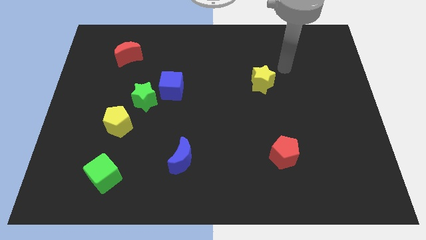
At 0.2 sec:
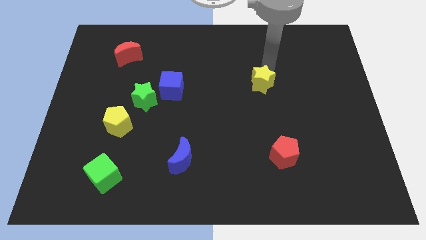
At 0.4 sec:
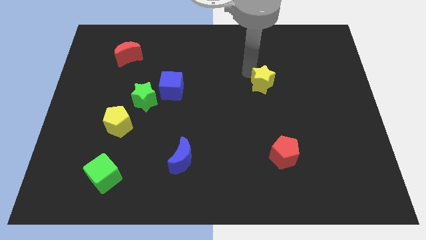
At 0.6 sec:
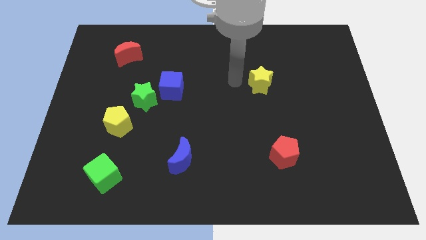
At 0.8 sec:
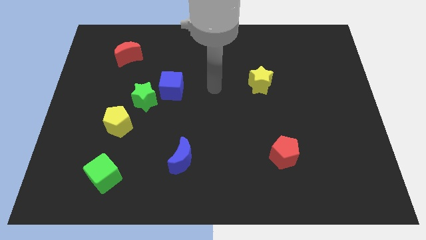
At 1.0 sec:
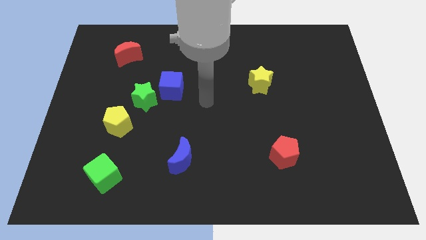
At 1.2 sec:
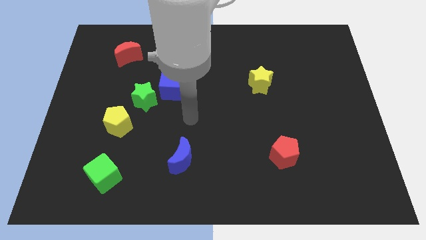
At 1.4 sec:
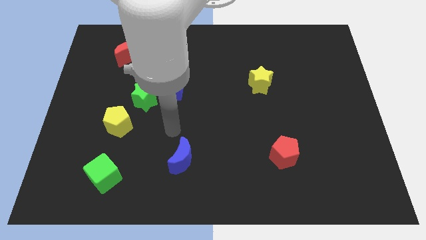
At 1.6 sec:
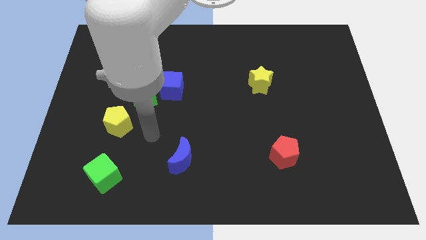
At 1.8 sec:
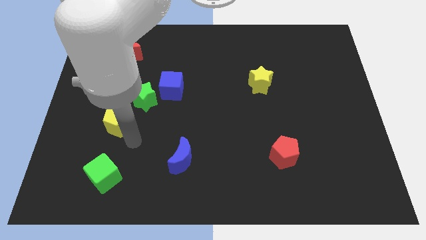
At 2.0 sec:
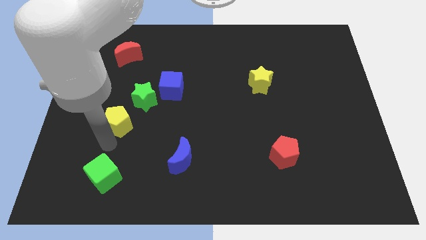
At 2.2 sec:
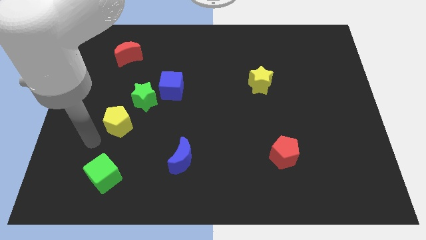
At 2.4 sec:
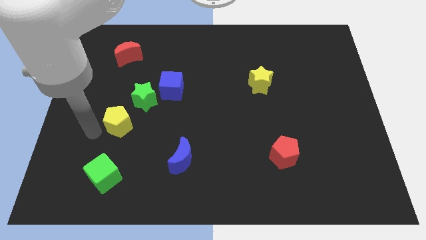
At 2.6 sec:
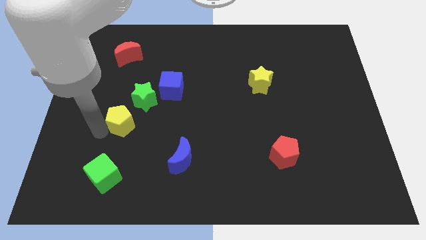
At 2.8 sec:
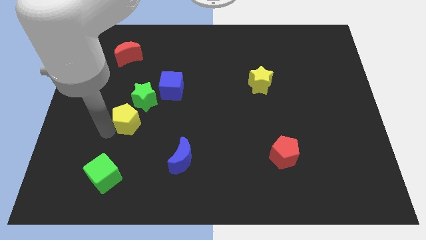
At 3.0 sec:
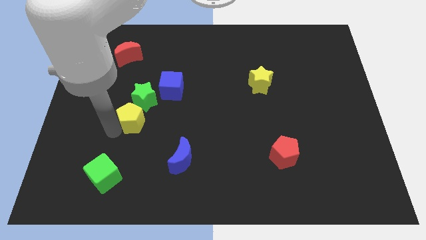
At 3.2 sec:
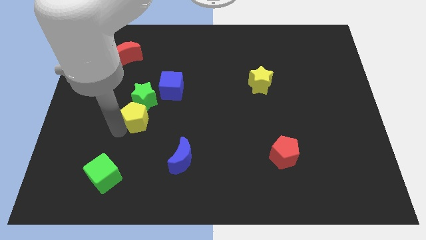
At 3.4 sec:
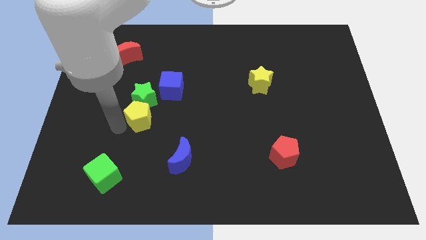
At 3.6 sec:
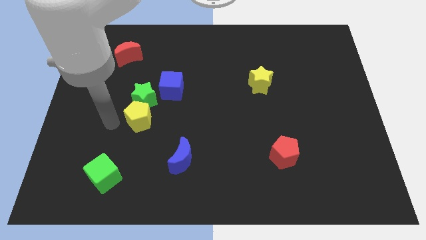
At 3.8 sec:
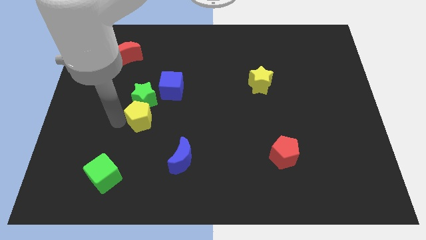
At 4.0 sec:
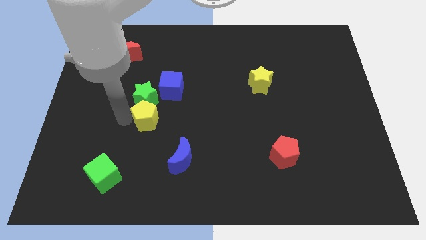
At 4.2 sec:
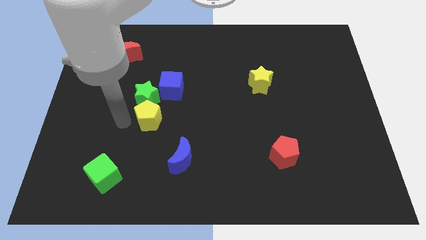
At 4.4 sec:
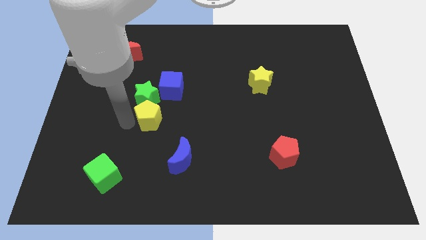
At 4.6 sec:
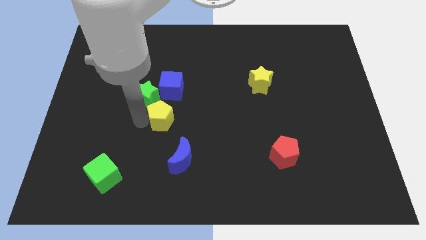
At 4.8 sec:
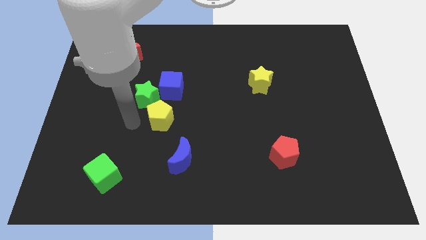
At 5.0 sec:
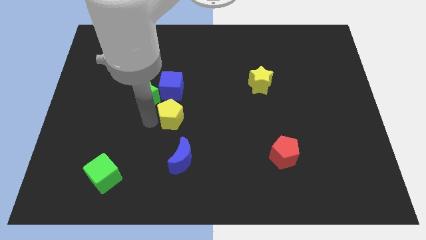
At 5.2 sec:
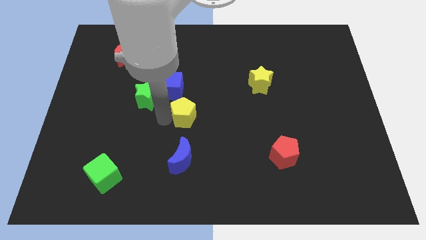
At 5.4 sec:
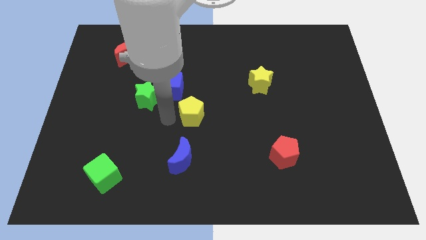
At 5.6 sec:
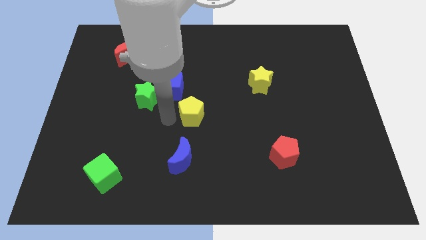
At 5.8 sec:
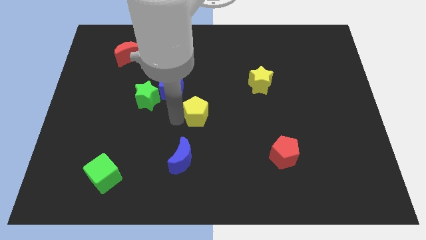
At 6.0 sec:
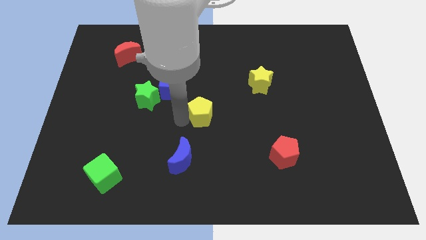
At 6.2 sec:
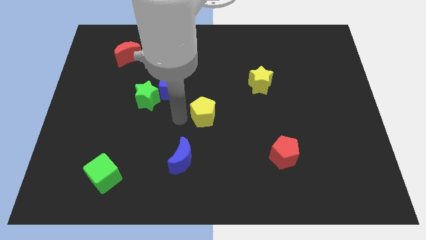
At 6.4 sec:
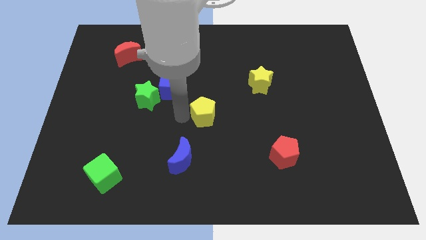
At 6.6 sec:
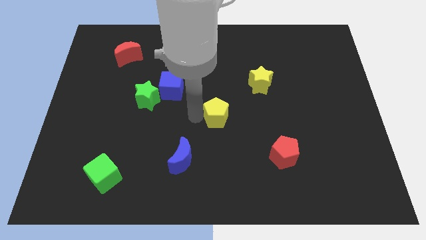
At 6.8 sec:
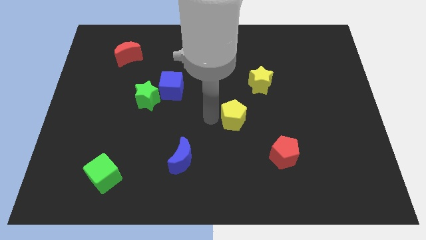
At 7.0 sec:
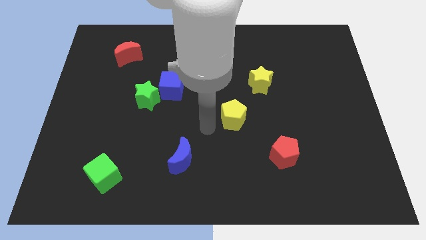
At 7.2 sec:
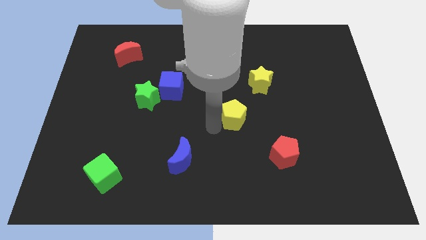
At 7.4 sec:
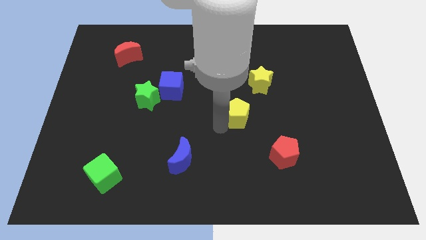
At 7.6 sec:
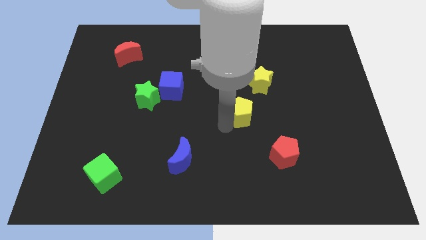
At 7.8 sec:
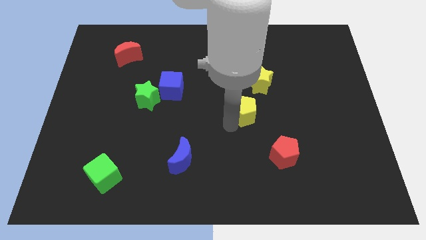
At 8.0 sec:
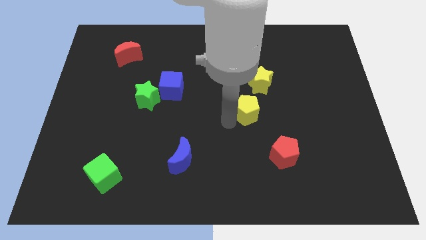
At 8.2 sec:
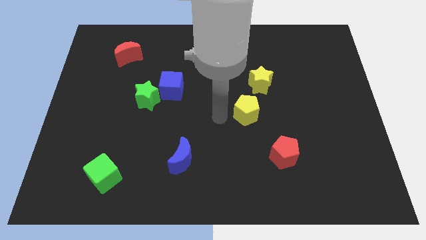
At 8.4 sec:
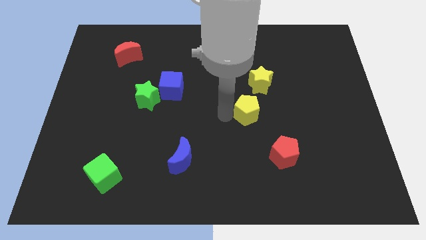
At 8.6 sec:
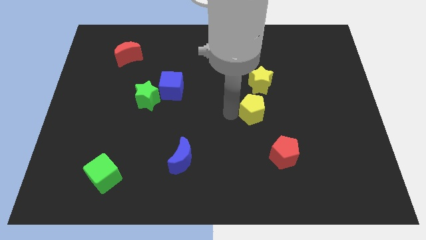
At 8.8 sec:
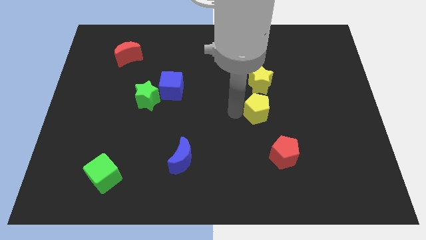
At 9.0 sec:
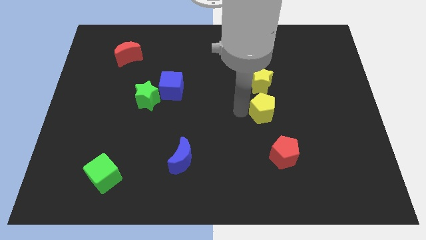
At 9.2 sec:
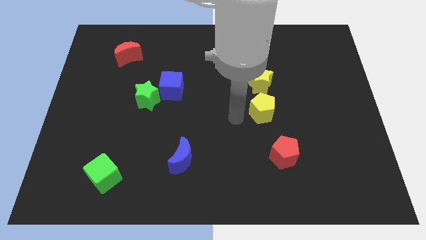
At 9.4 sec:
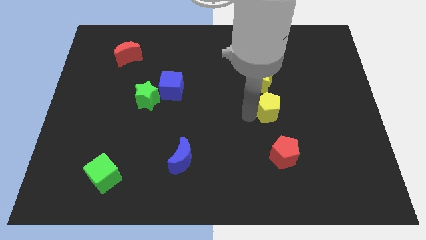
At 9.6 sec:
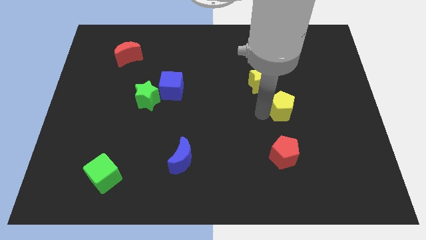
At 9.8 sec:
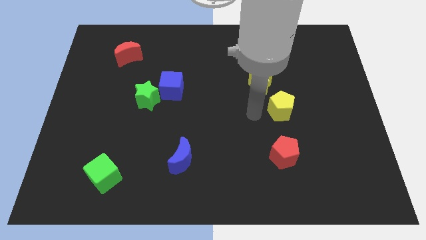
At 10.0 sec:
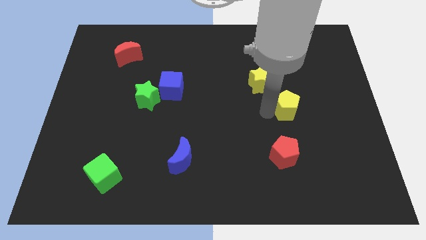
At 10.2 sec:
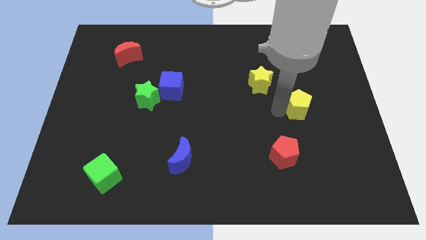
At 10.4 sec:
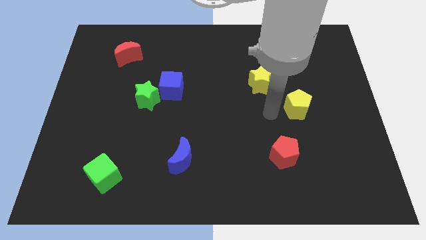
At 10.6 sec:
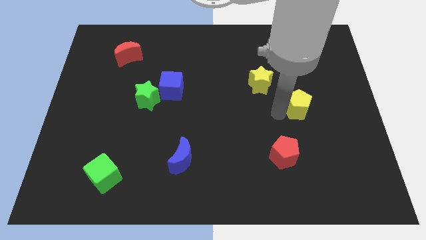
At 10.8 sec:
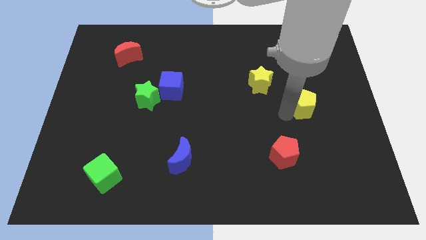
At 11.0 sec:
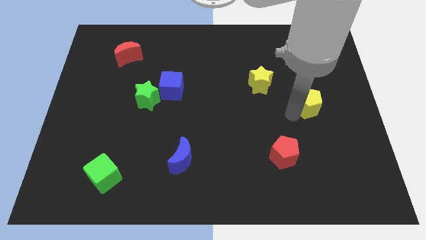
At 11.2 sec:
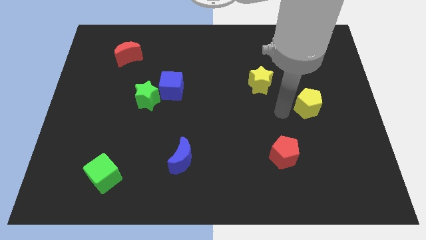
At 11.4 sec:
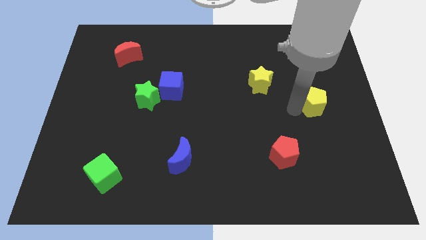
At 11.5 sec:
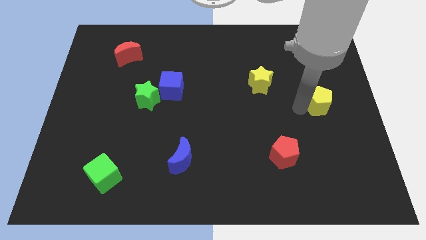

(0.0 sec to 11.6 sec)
push the yellow pentagon to the right side of the board

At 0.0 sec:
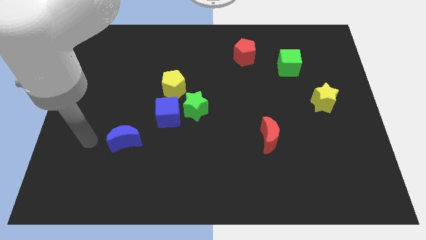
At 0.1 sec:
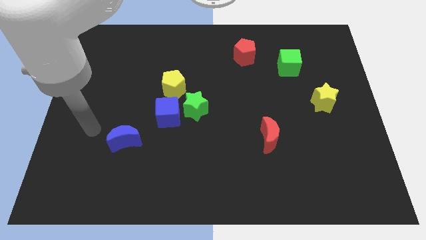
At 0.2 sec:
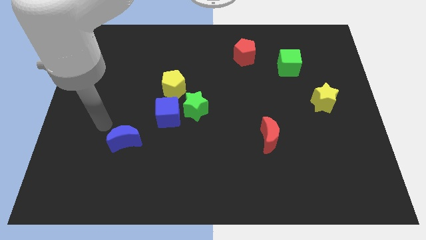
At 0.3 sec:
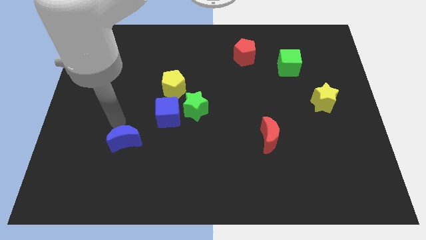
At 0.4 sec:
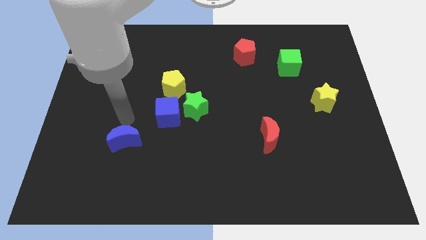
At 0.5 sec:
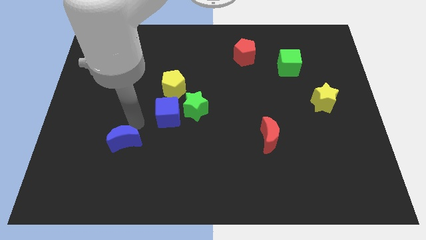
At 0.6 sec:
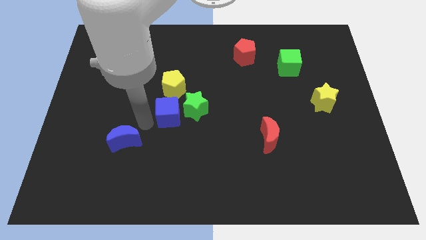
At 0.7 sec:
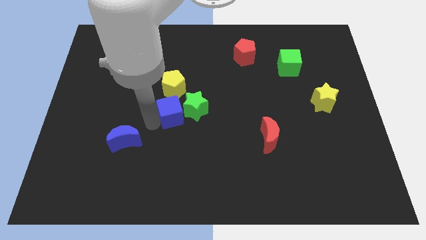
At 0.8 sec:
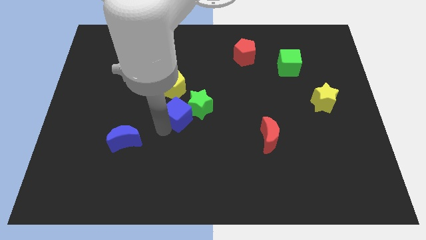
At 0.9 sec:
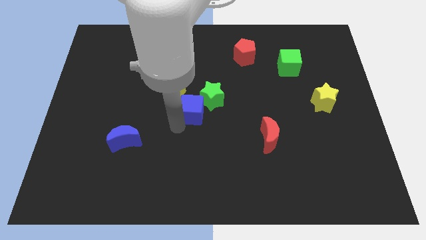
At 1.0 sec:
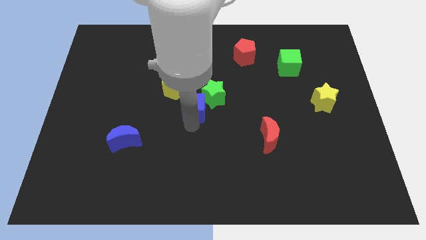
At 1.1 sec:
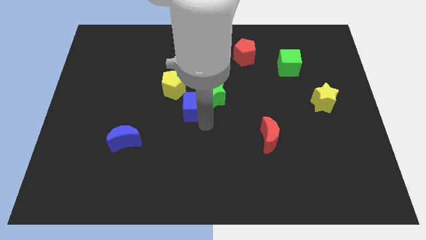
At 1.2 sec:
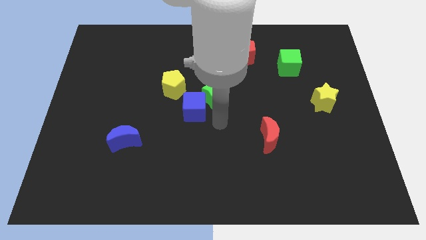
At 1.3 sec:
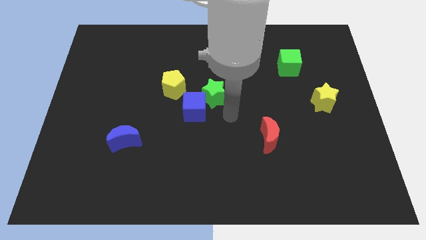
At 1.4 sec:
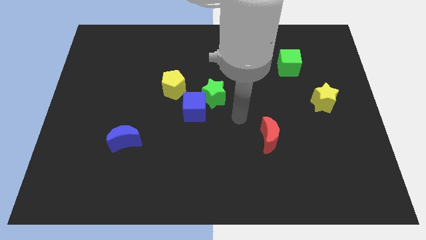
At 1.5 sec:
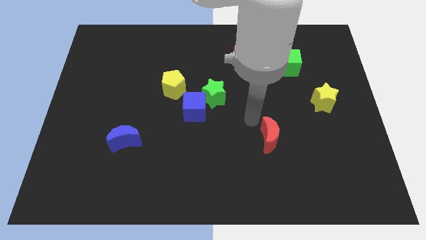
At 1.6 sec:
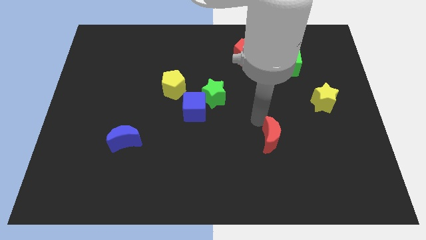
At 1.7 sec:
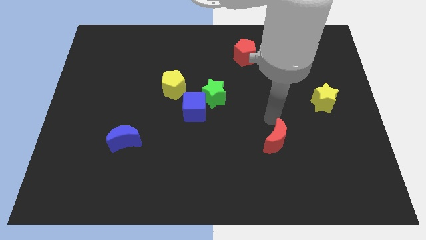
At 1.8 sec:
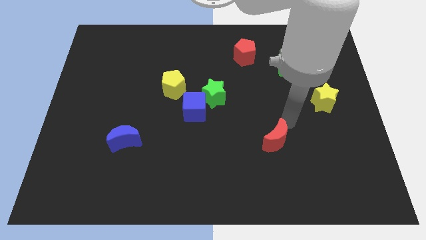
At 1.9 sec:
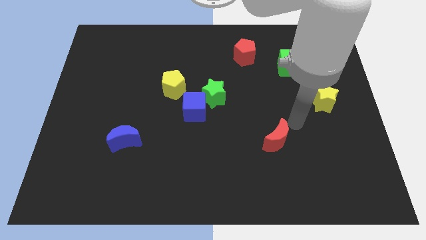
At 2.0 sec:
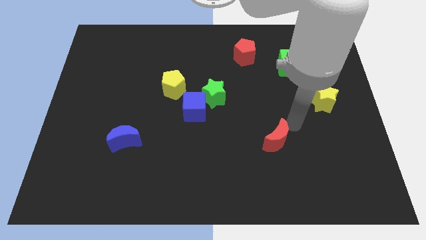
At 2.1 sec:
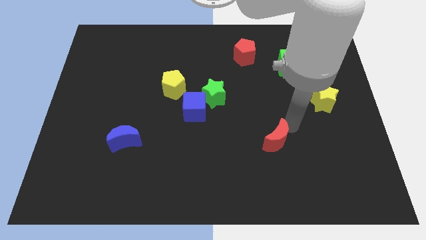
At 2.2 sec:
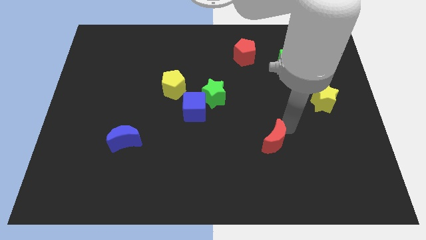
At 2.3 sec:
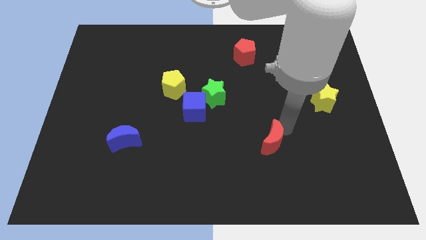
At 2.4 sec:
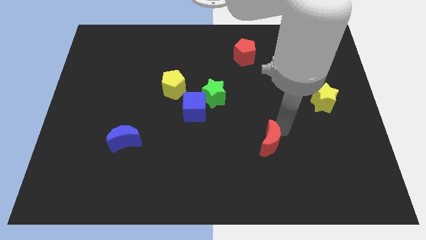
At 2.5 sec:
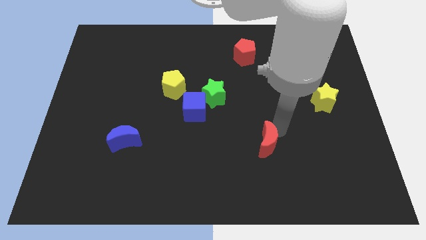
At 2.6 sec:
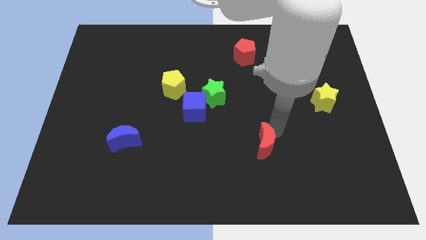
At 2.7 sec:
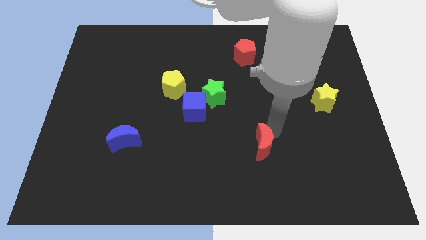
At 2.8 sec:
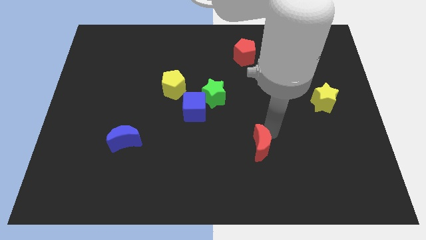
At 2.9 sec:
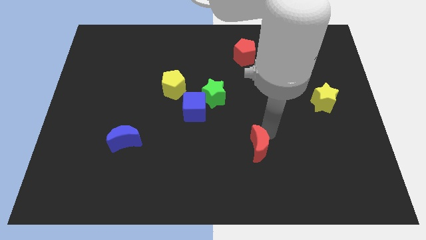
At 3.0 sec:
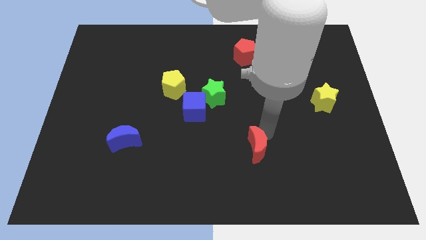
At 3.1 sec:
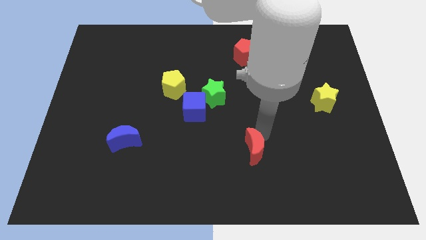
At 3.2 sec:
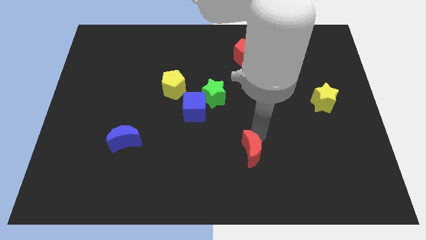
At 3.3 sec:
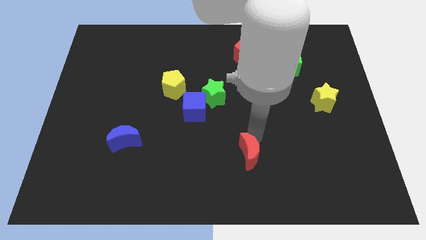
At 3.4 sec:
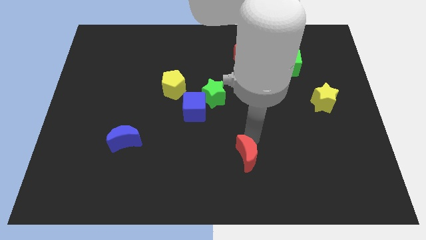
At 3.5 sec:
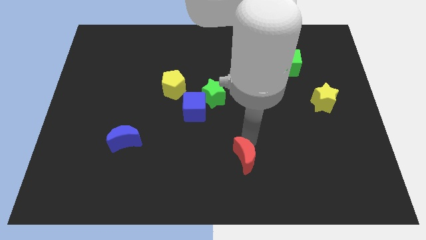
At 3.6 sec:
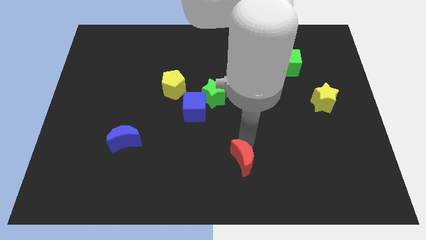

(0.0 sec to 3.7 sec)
move the red moon to the bottom side
